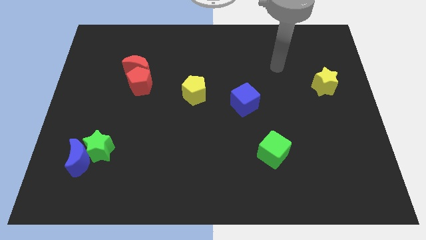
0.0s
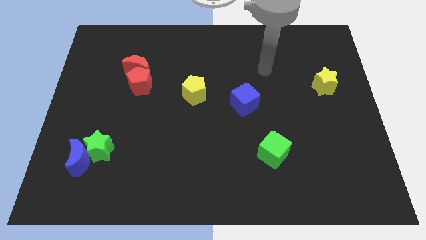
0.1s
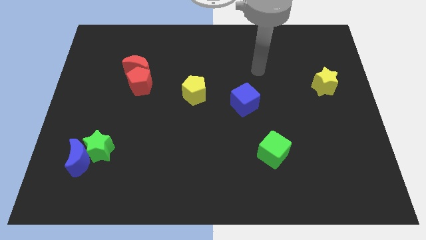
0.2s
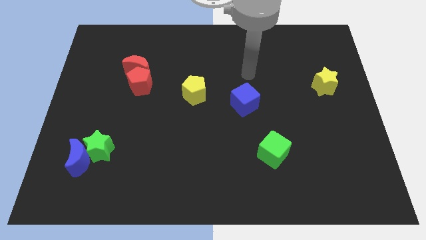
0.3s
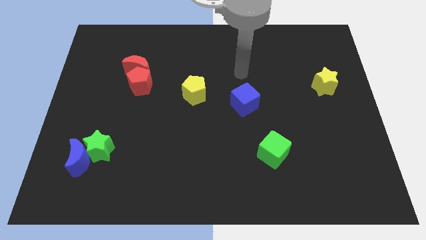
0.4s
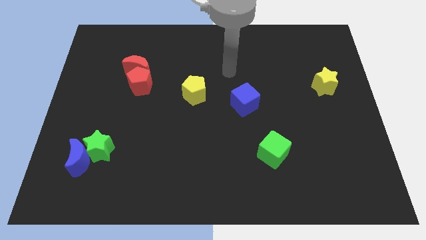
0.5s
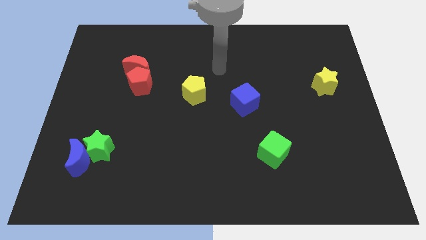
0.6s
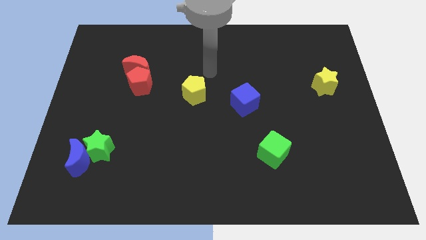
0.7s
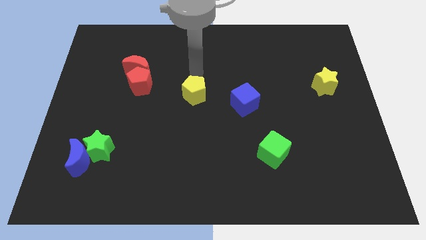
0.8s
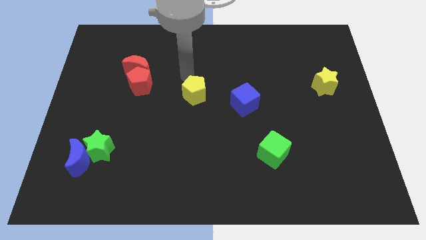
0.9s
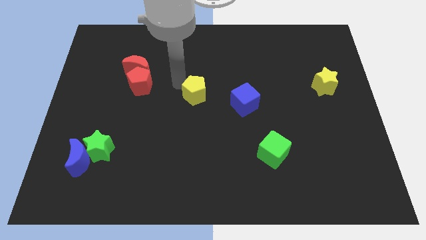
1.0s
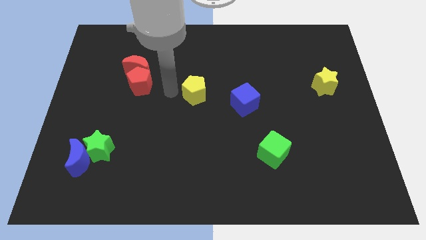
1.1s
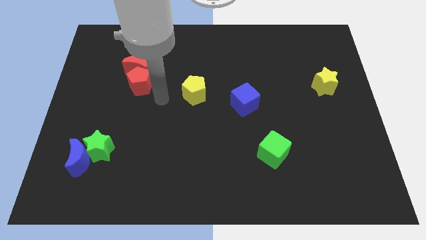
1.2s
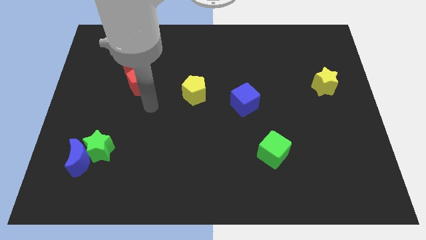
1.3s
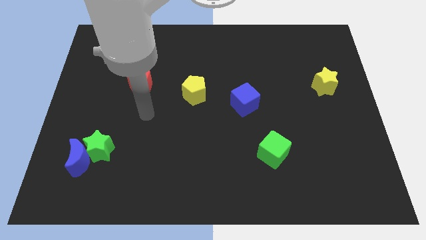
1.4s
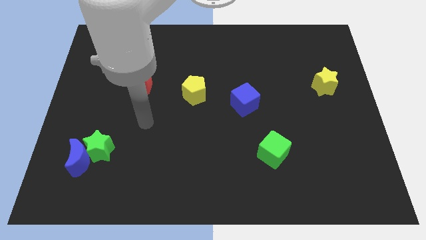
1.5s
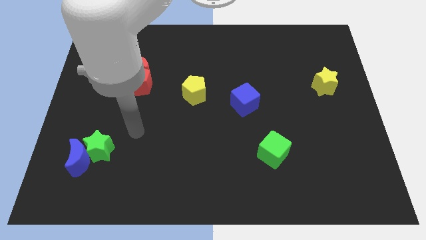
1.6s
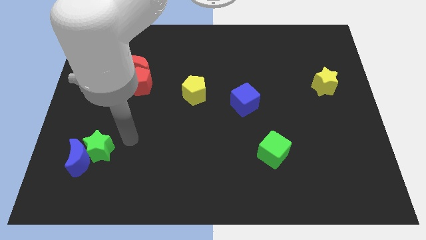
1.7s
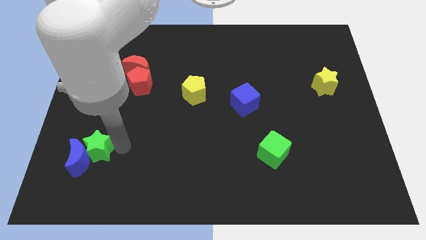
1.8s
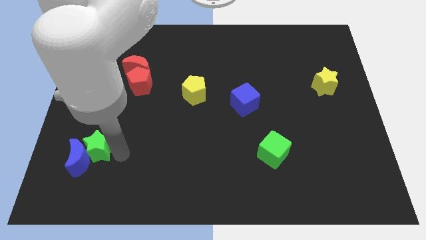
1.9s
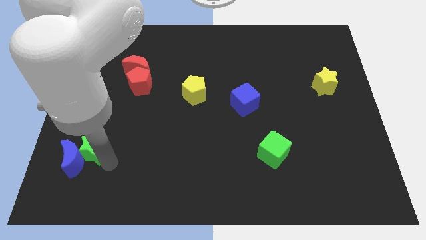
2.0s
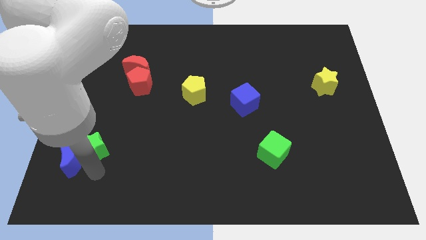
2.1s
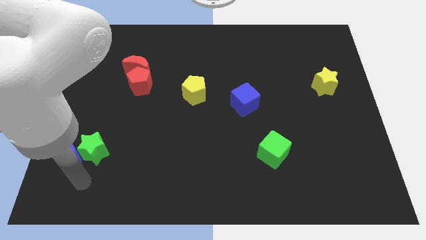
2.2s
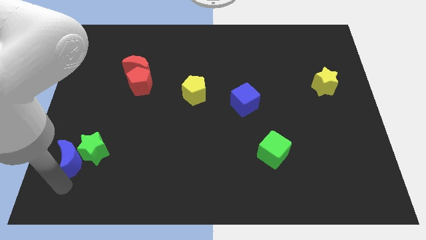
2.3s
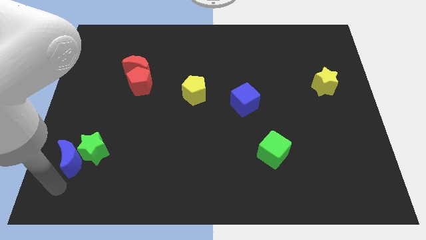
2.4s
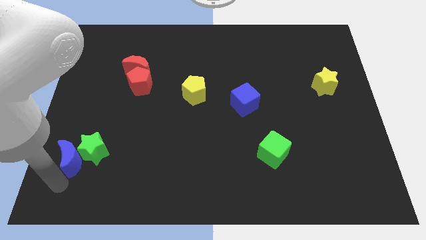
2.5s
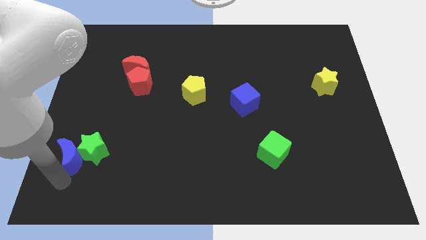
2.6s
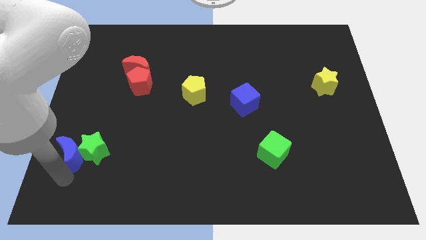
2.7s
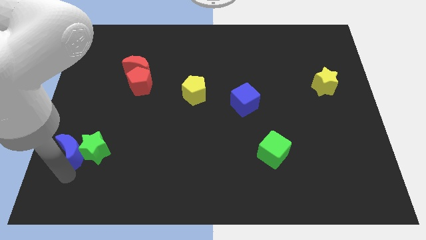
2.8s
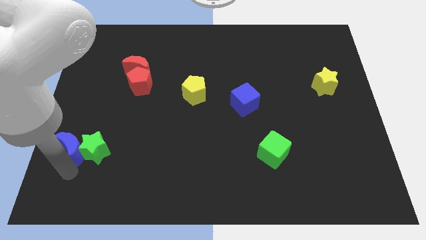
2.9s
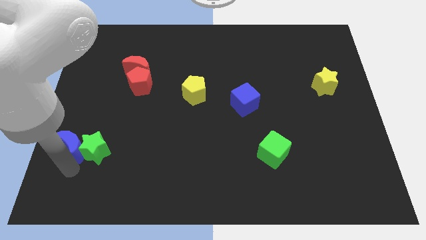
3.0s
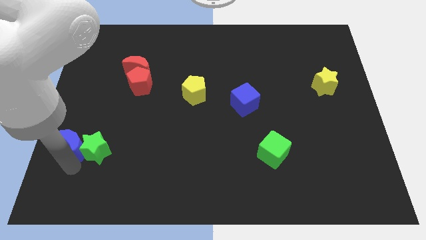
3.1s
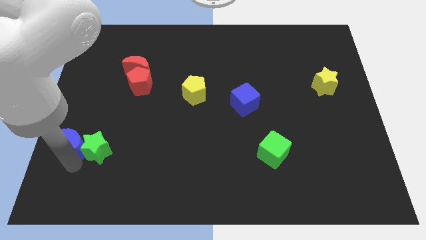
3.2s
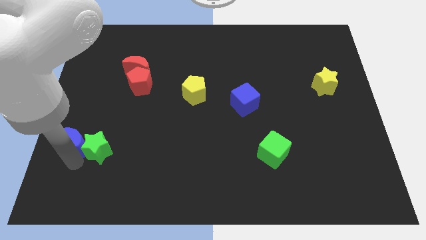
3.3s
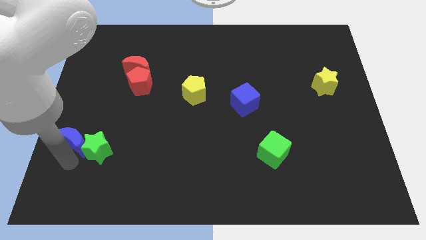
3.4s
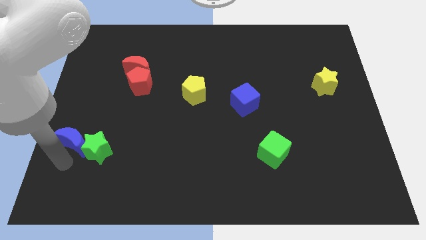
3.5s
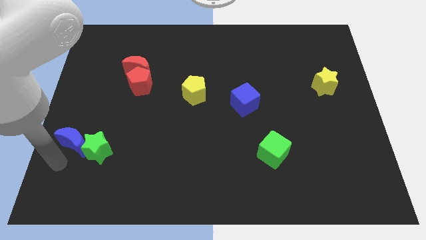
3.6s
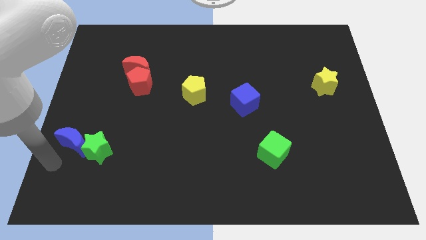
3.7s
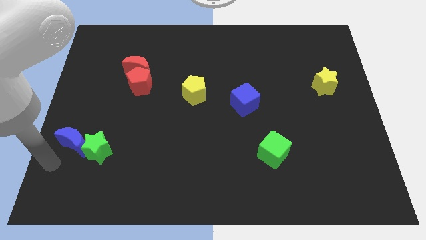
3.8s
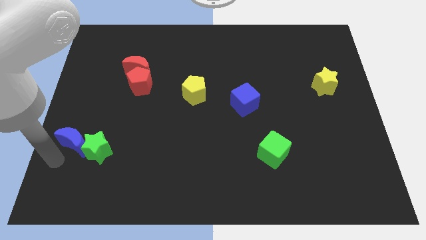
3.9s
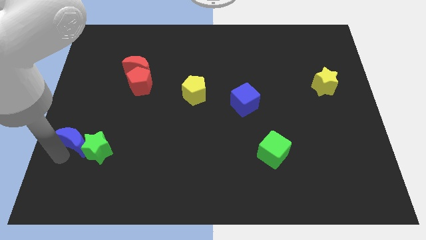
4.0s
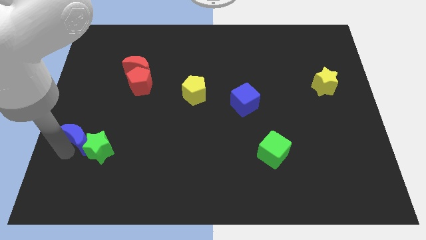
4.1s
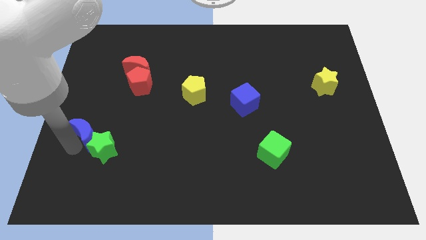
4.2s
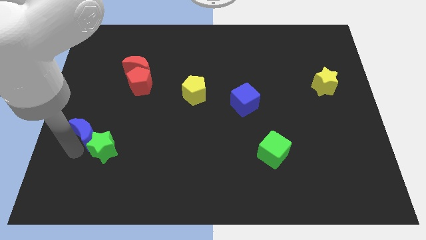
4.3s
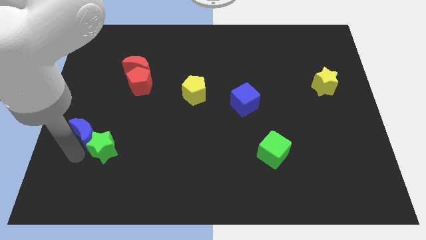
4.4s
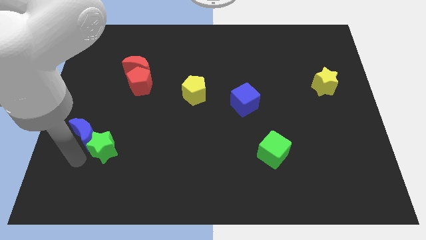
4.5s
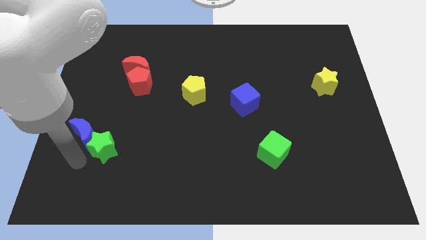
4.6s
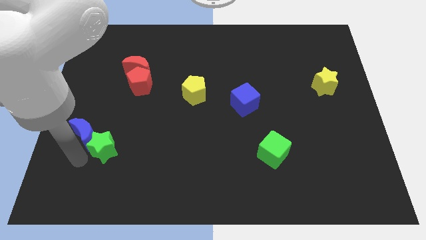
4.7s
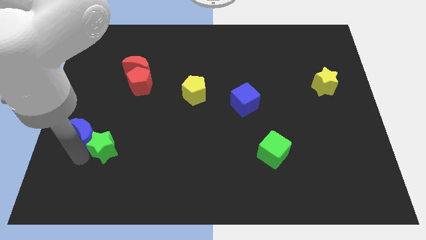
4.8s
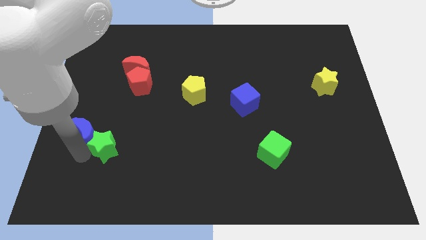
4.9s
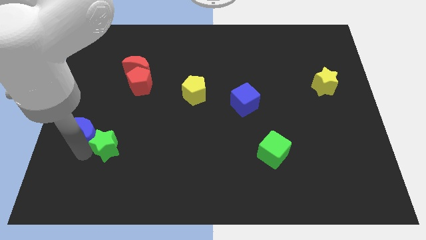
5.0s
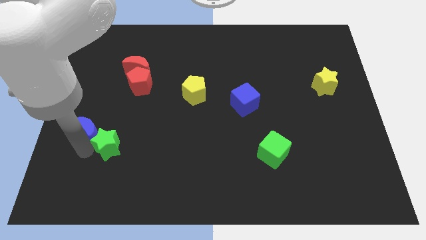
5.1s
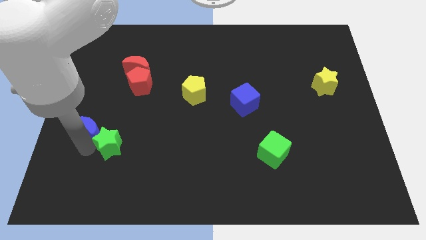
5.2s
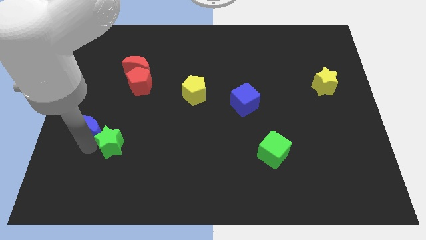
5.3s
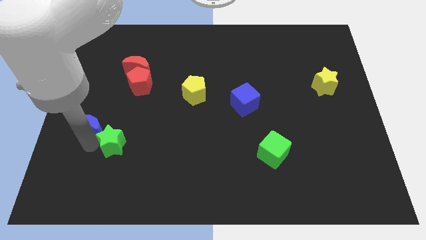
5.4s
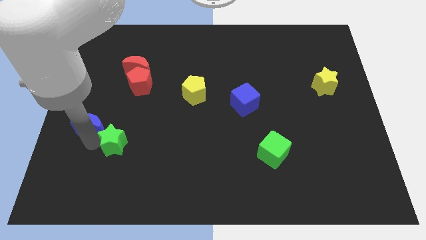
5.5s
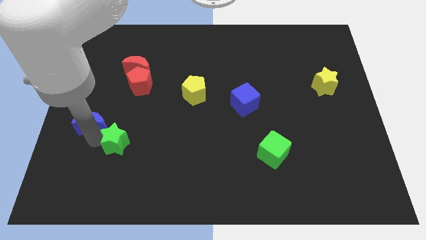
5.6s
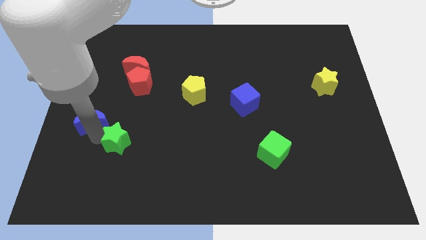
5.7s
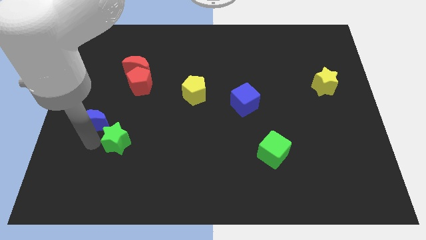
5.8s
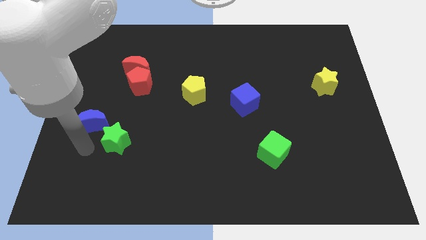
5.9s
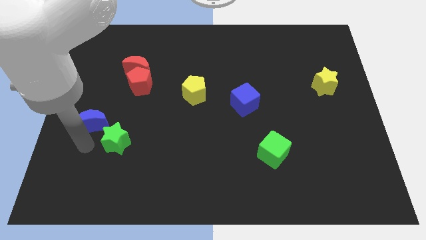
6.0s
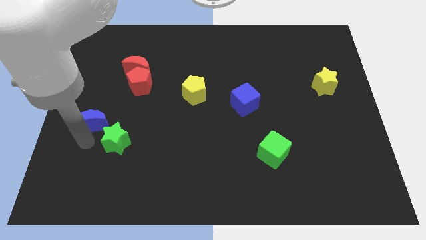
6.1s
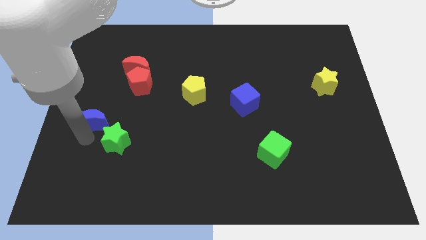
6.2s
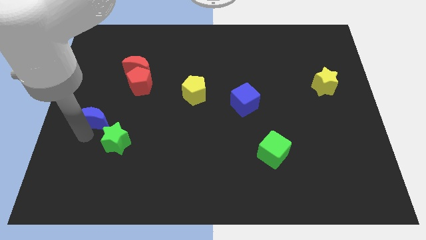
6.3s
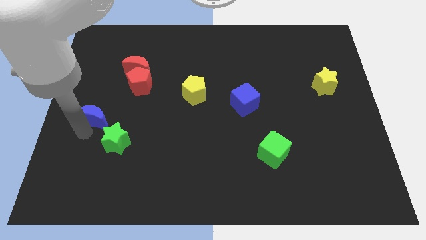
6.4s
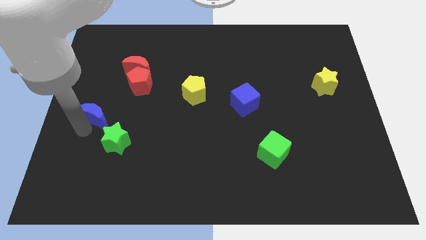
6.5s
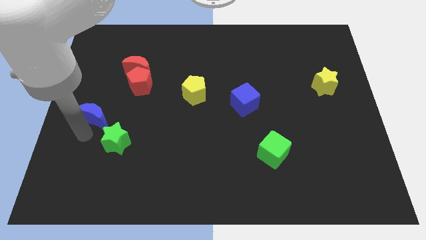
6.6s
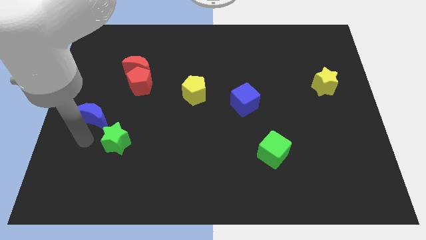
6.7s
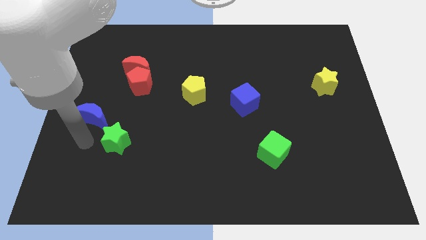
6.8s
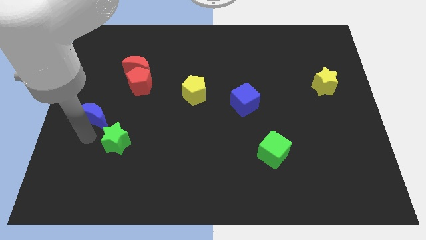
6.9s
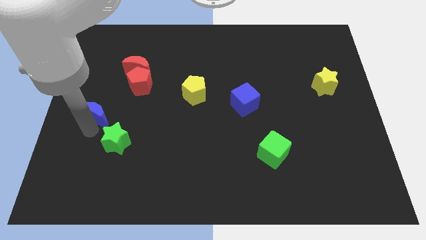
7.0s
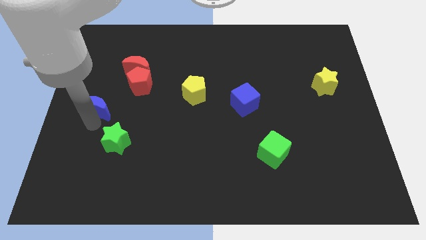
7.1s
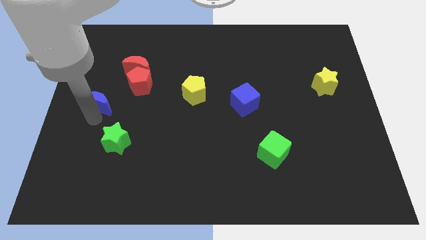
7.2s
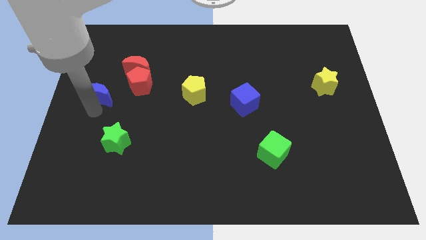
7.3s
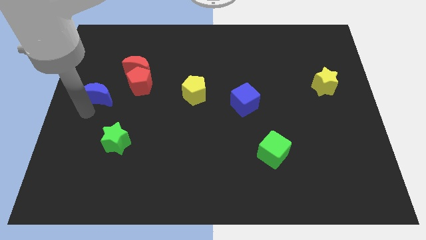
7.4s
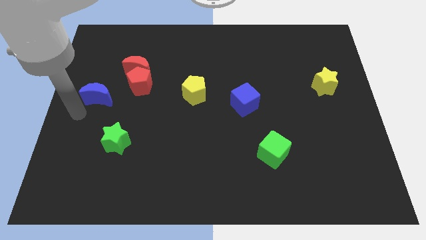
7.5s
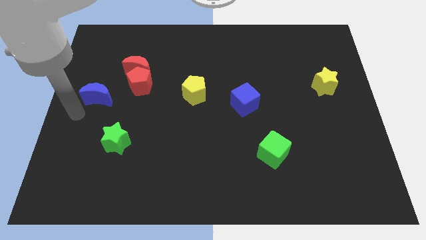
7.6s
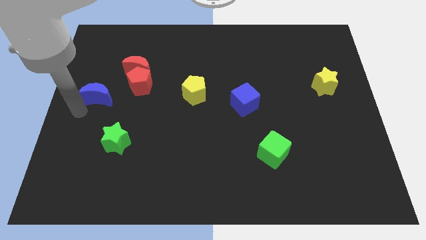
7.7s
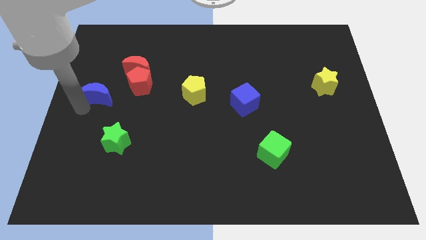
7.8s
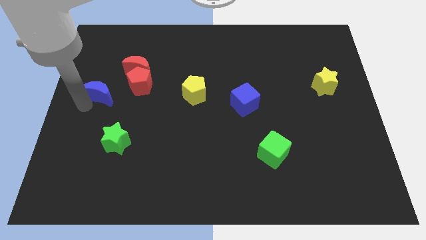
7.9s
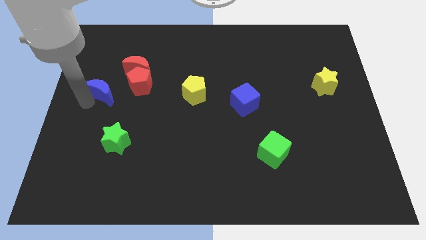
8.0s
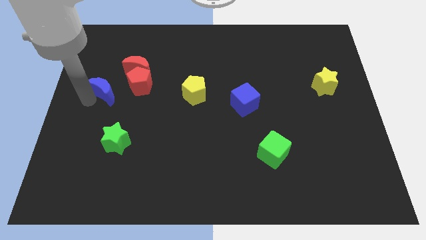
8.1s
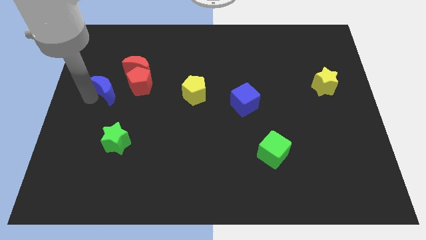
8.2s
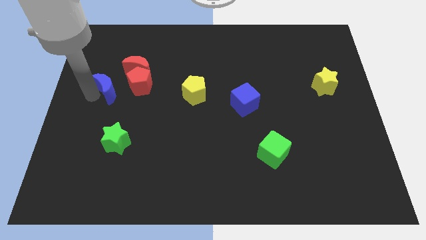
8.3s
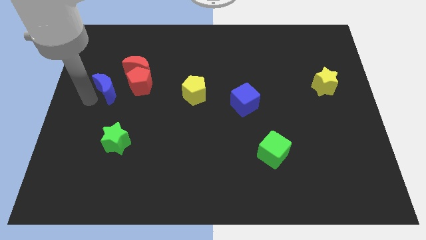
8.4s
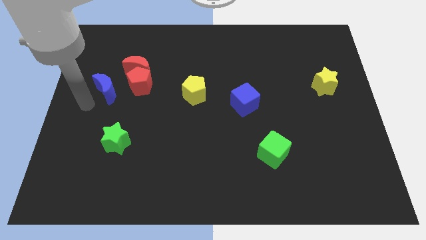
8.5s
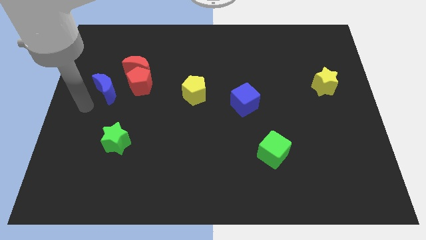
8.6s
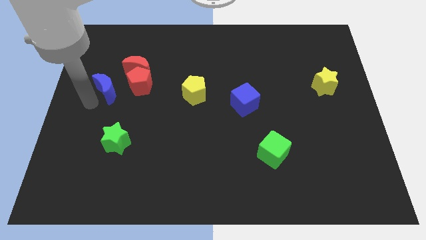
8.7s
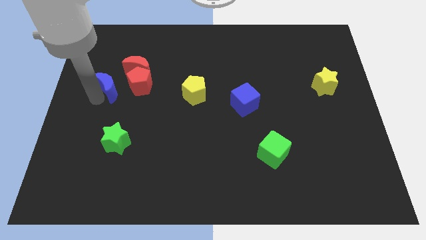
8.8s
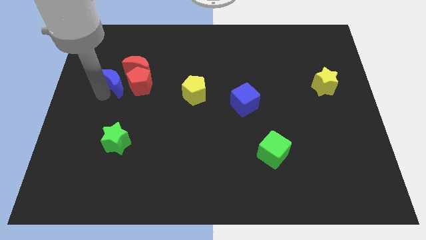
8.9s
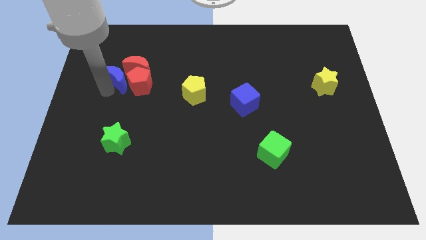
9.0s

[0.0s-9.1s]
slide the blue moon close to the red moon
